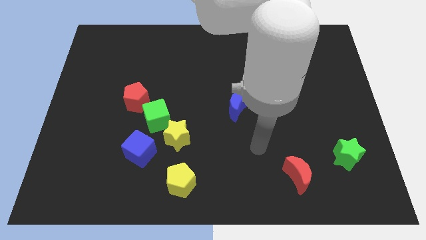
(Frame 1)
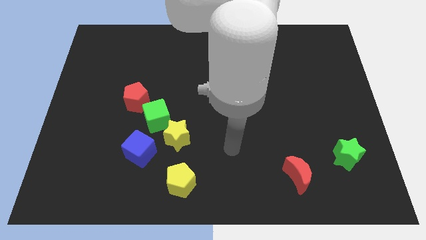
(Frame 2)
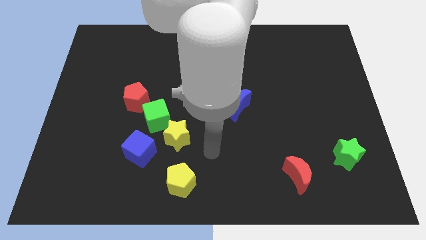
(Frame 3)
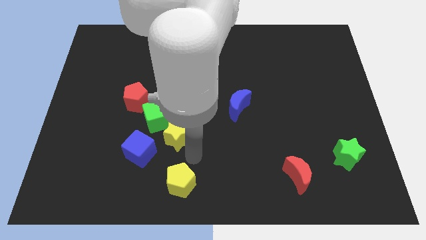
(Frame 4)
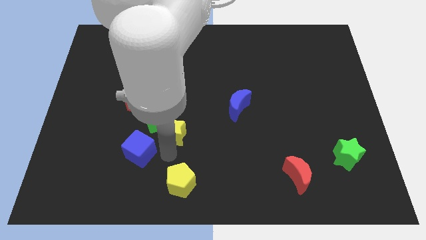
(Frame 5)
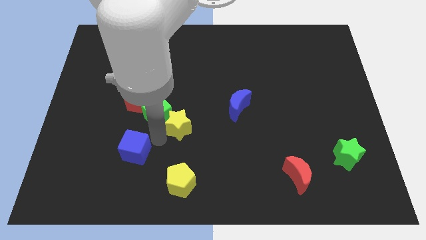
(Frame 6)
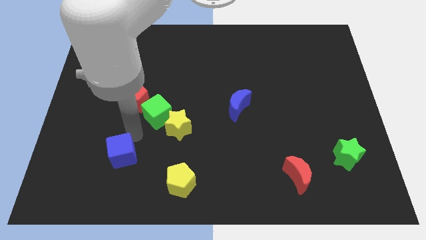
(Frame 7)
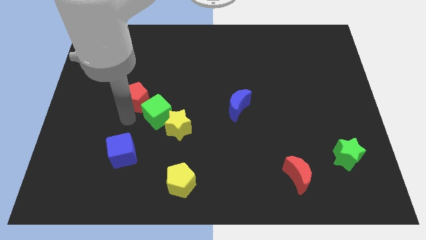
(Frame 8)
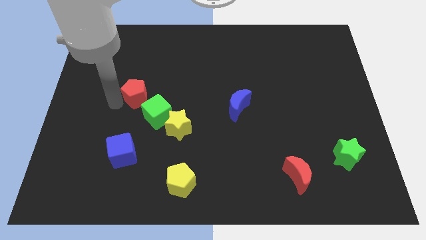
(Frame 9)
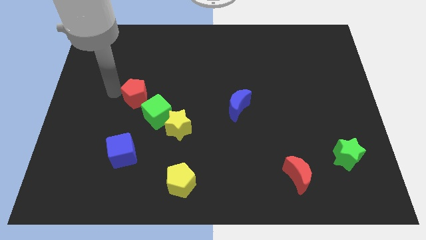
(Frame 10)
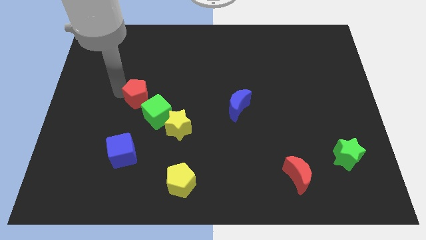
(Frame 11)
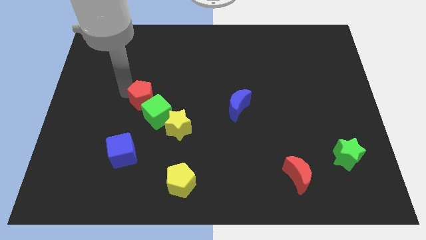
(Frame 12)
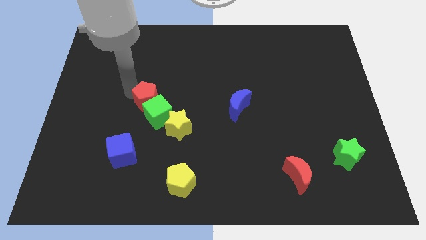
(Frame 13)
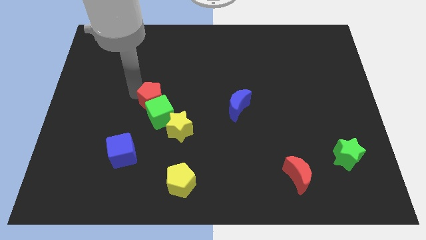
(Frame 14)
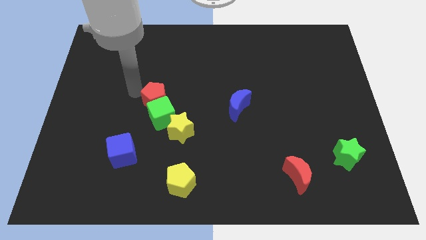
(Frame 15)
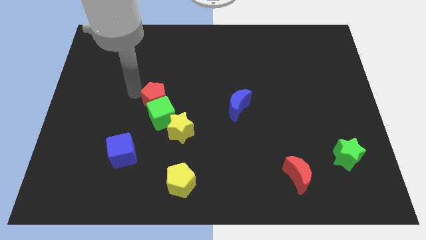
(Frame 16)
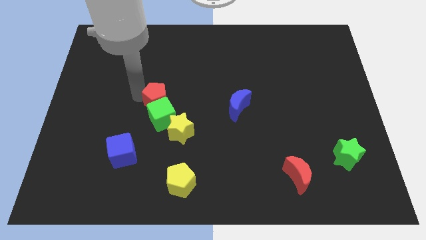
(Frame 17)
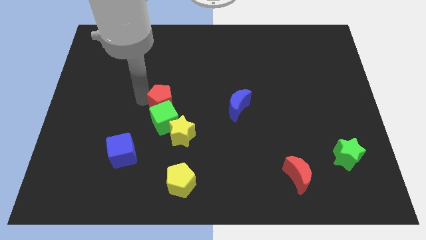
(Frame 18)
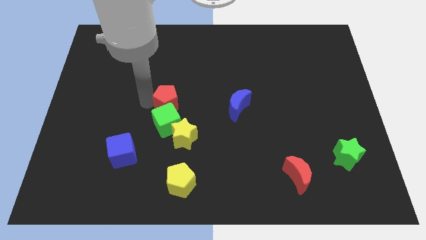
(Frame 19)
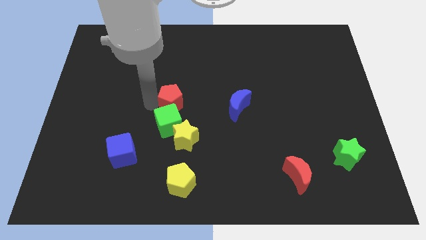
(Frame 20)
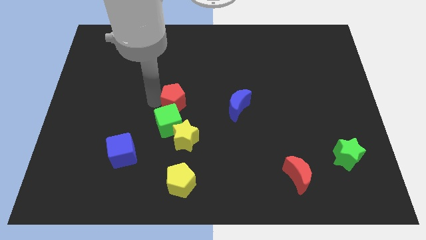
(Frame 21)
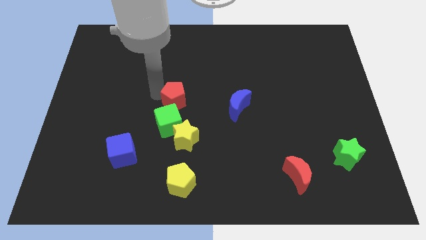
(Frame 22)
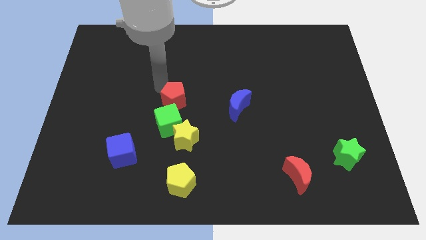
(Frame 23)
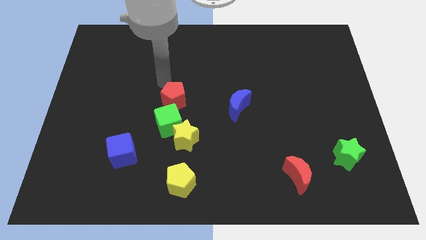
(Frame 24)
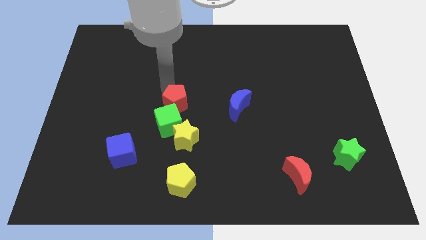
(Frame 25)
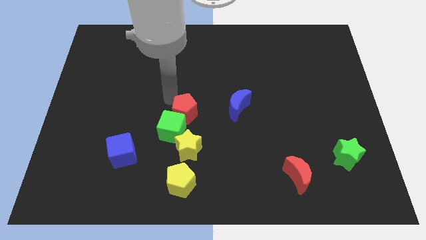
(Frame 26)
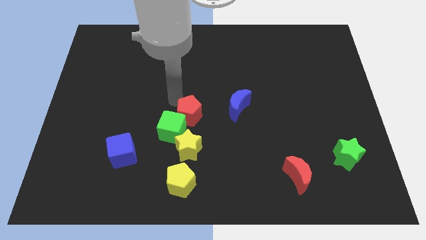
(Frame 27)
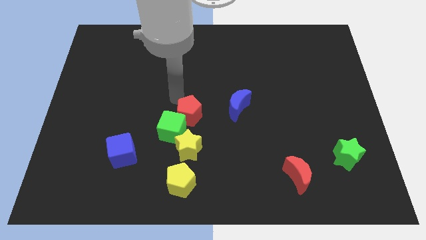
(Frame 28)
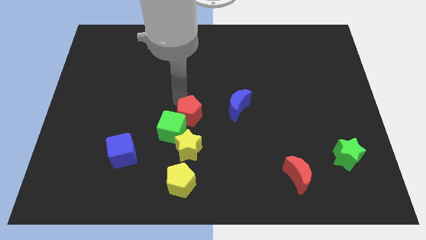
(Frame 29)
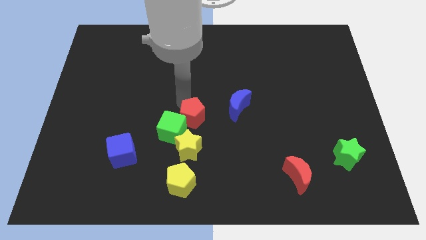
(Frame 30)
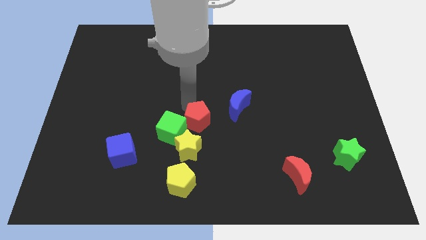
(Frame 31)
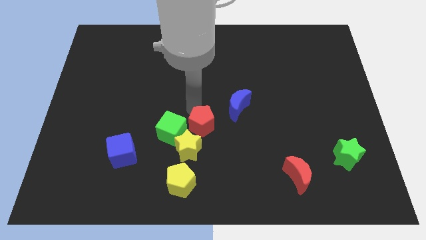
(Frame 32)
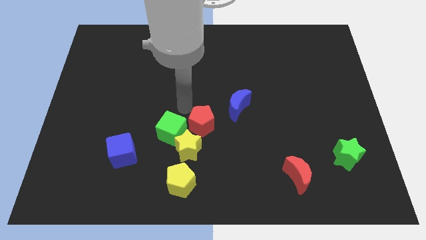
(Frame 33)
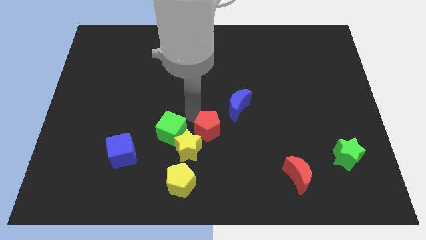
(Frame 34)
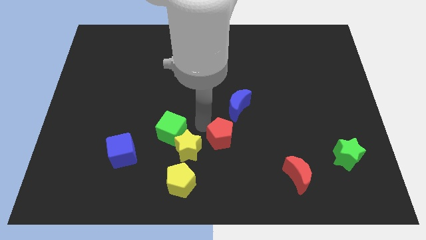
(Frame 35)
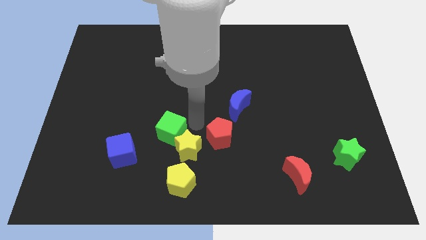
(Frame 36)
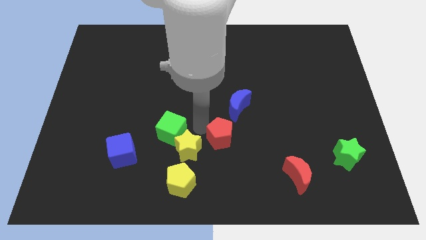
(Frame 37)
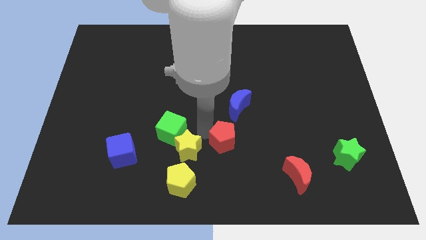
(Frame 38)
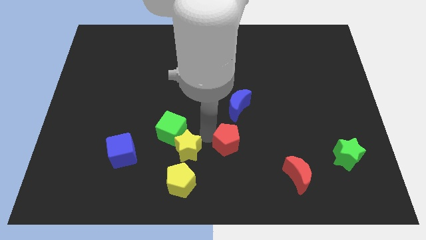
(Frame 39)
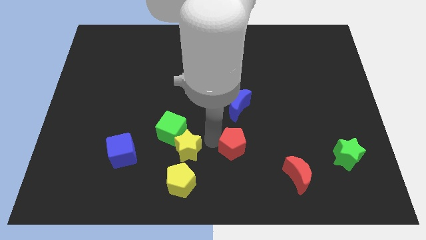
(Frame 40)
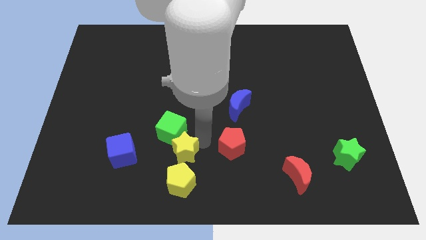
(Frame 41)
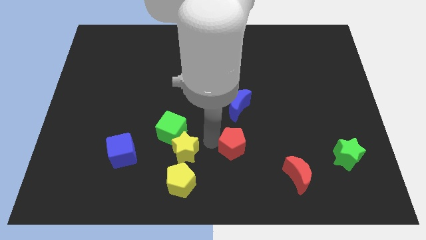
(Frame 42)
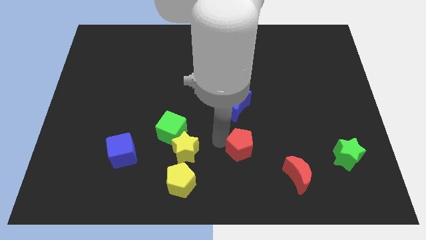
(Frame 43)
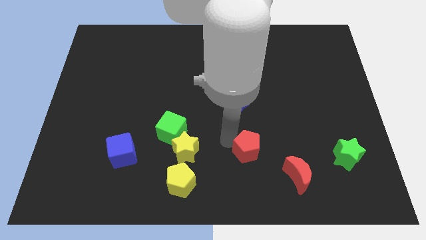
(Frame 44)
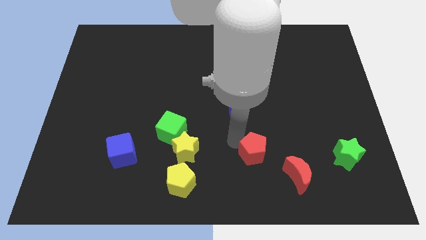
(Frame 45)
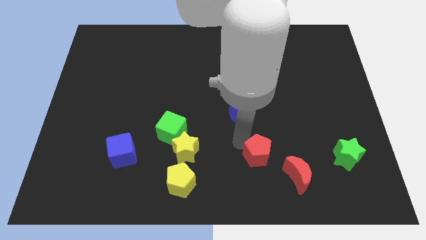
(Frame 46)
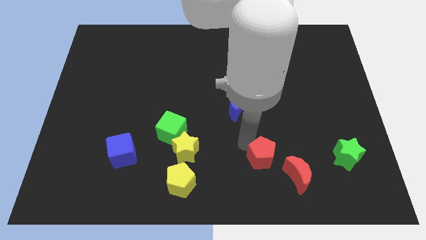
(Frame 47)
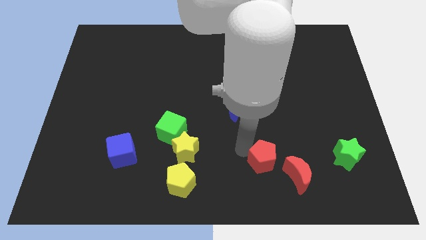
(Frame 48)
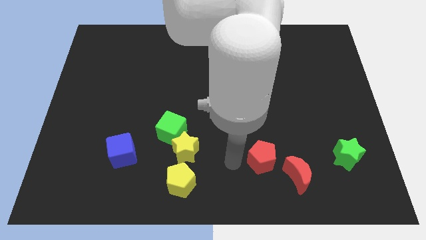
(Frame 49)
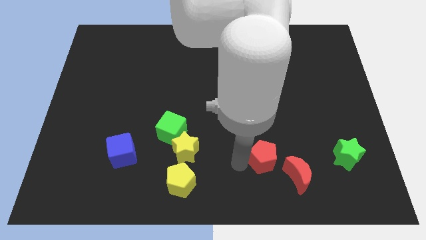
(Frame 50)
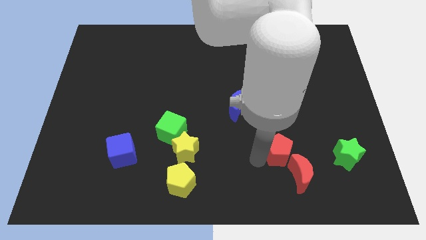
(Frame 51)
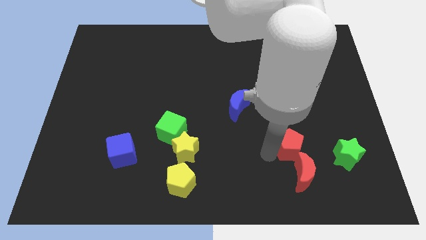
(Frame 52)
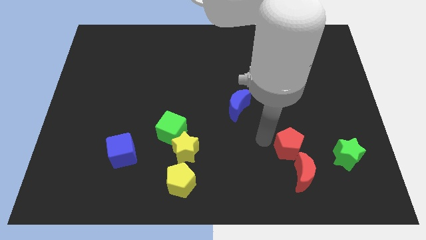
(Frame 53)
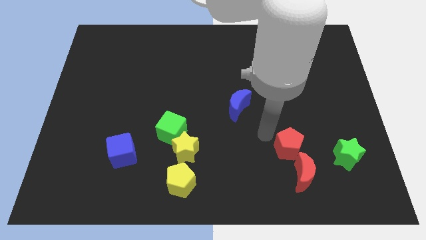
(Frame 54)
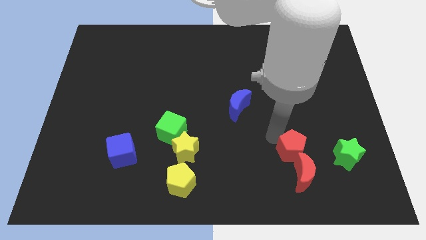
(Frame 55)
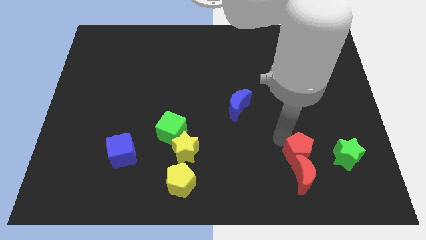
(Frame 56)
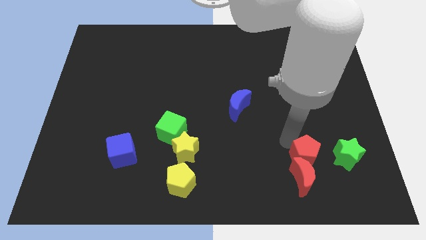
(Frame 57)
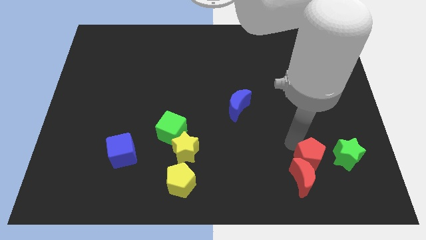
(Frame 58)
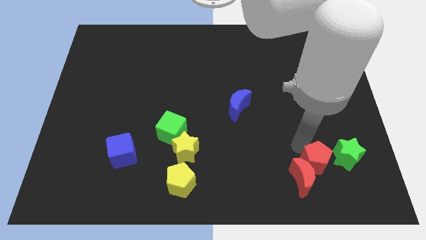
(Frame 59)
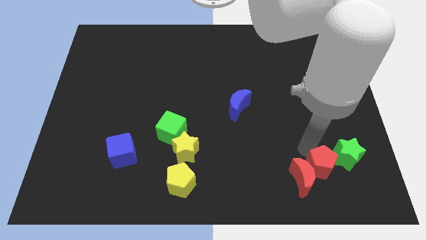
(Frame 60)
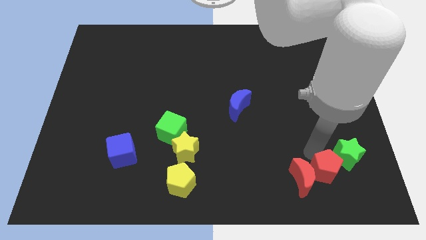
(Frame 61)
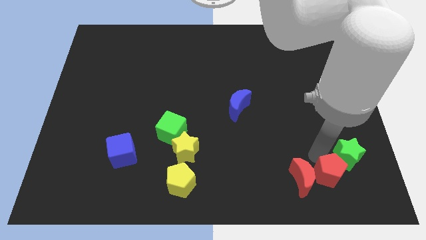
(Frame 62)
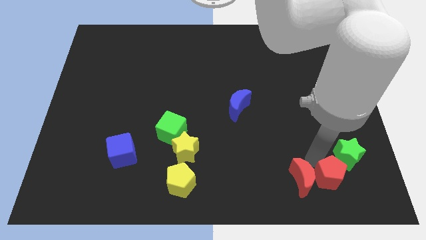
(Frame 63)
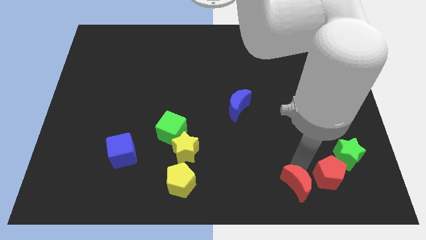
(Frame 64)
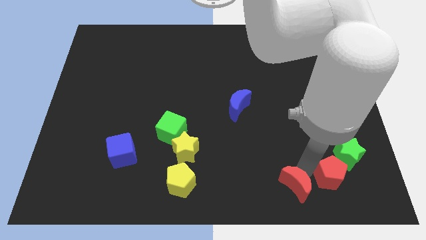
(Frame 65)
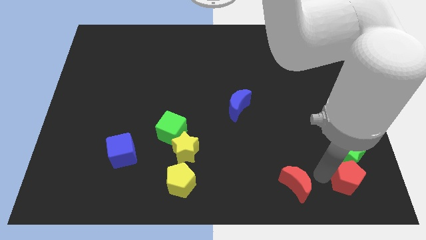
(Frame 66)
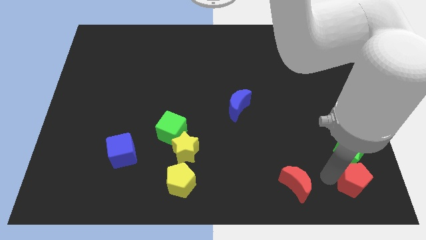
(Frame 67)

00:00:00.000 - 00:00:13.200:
push the red pentagon to the bottom right of the board
